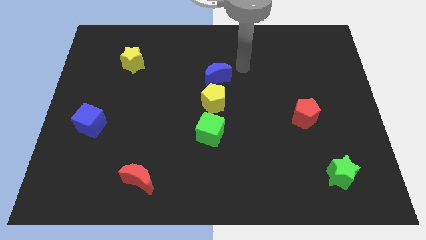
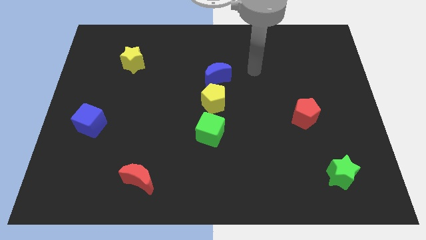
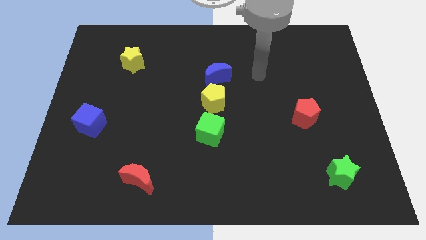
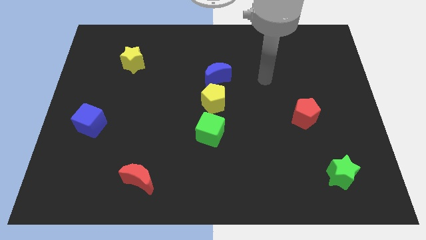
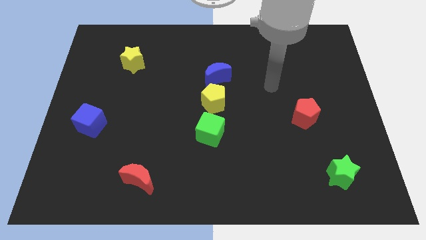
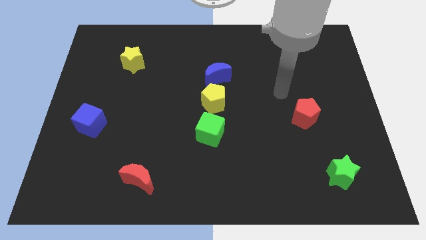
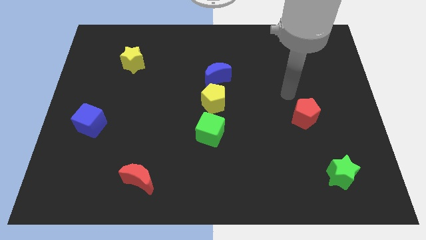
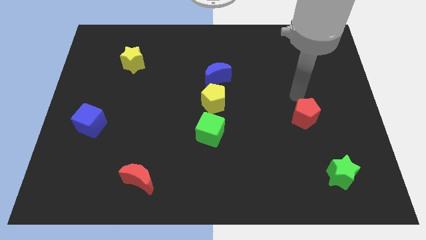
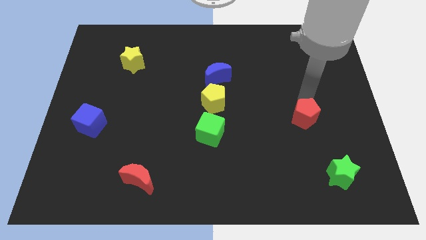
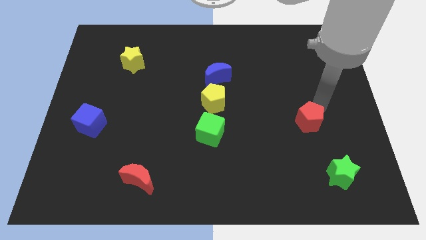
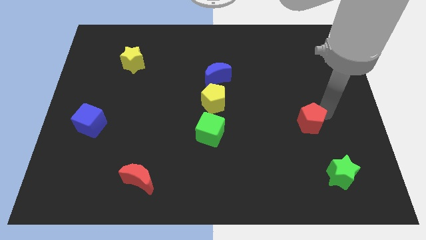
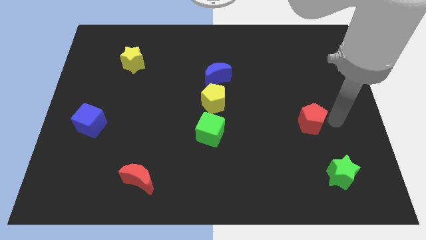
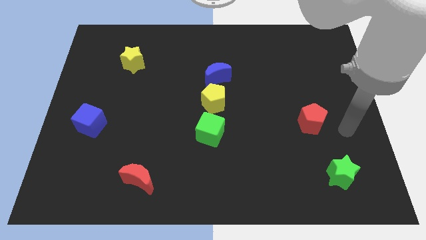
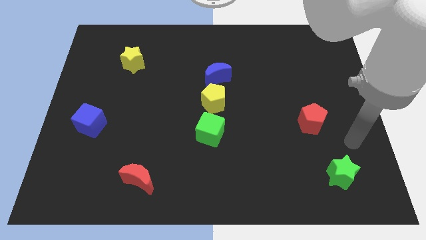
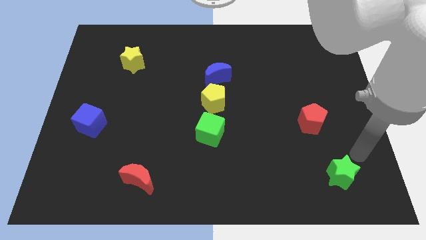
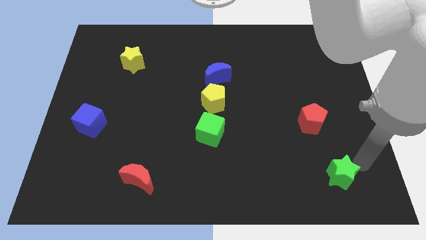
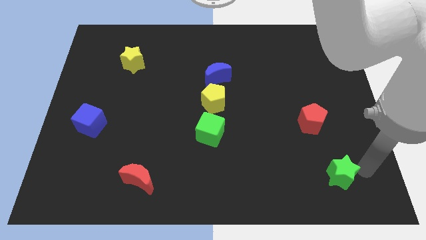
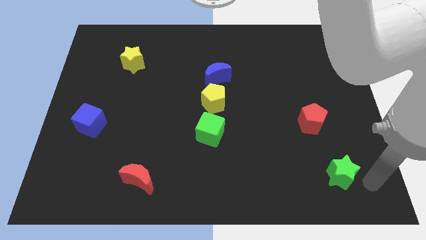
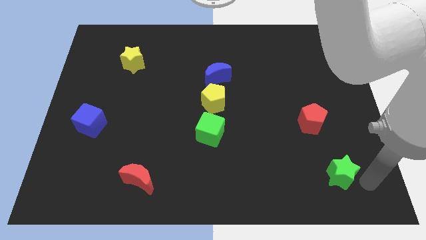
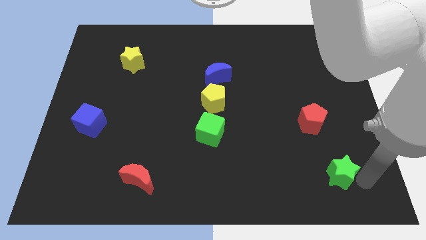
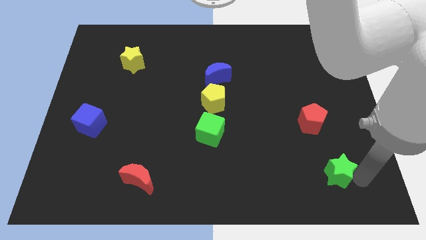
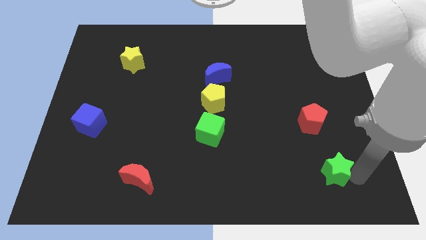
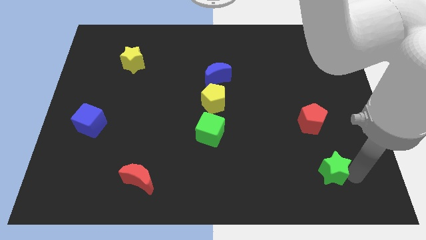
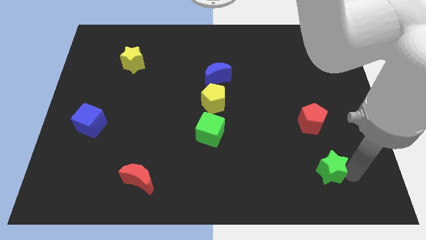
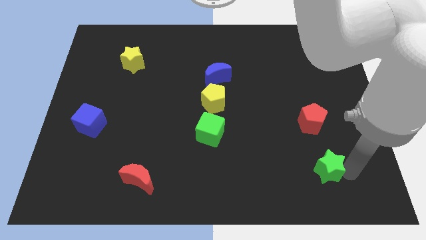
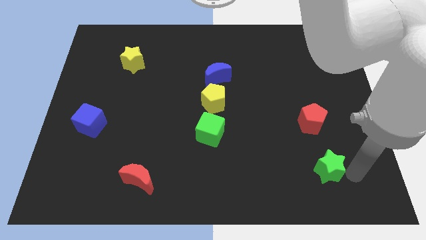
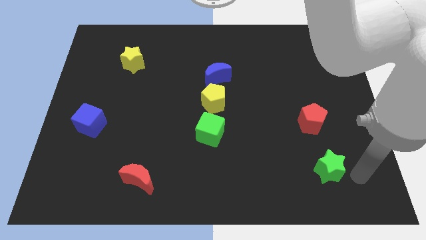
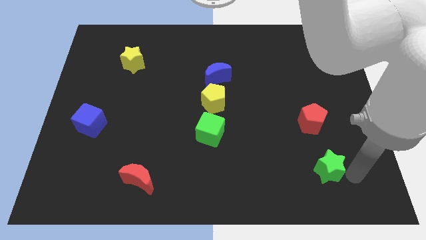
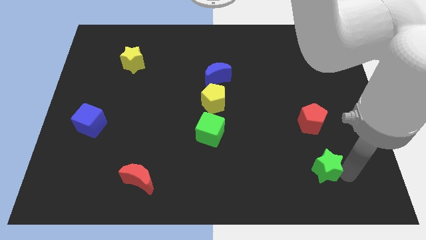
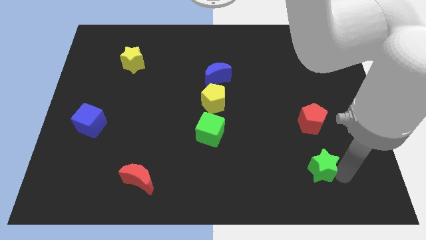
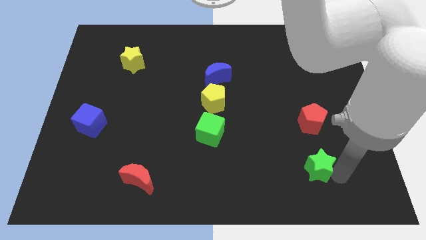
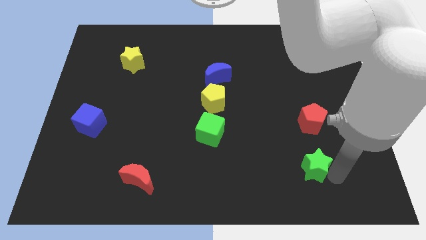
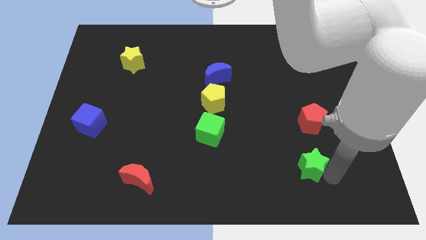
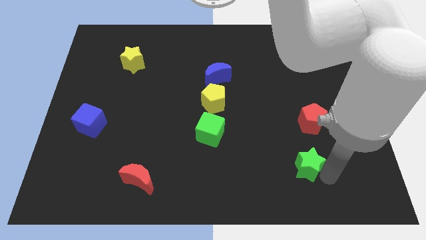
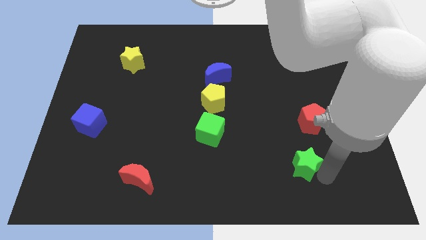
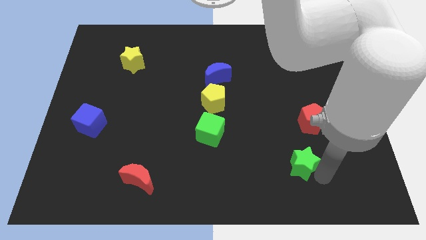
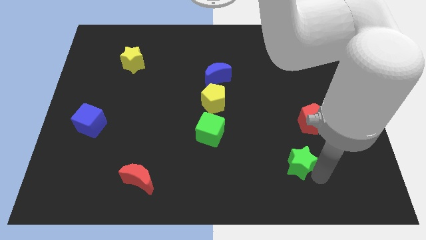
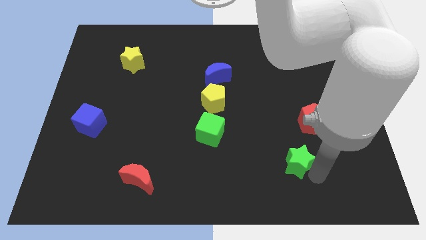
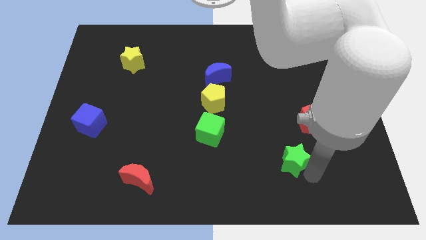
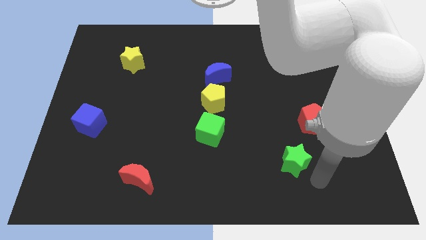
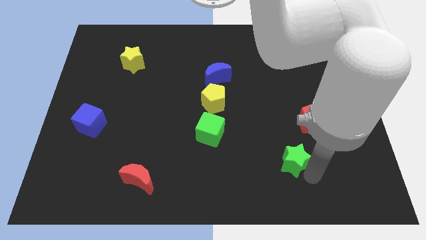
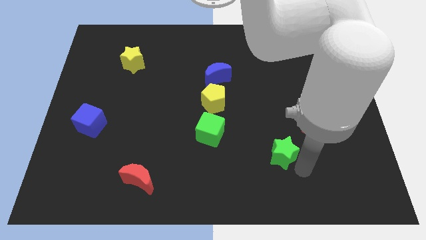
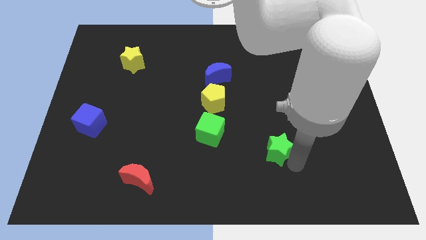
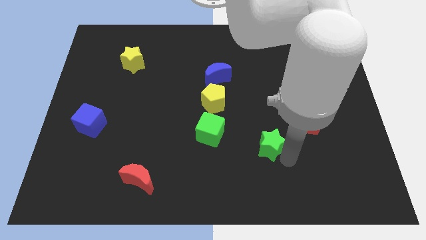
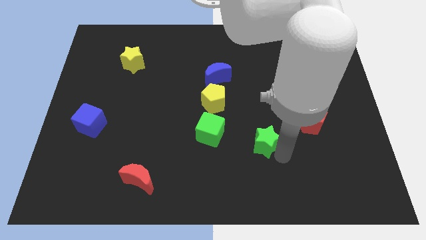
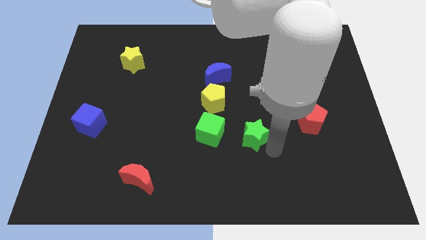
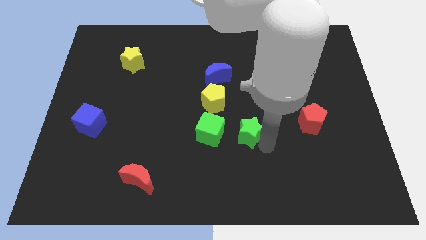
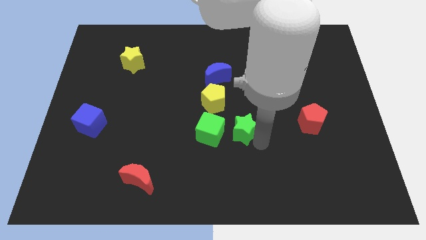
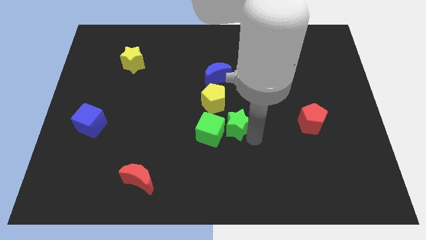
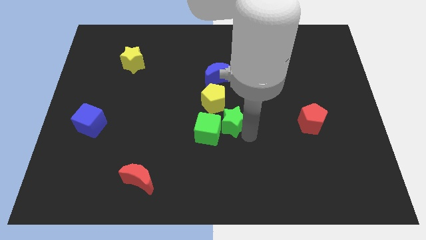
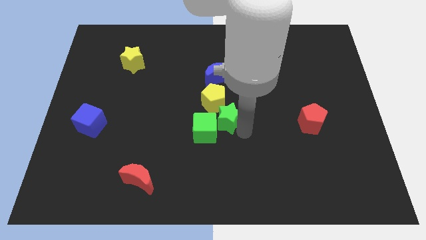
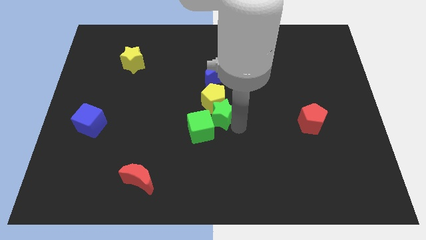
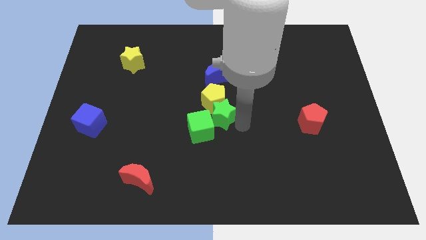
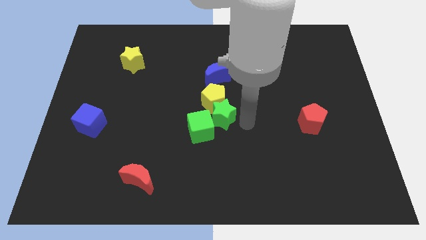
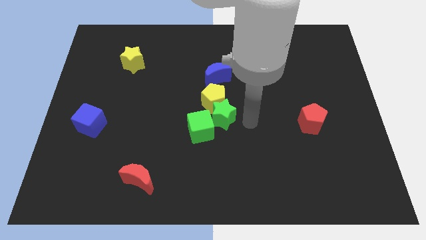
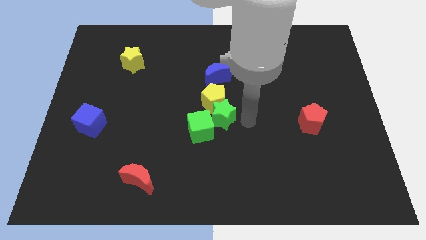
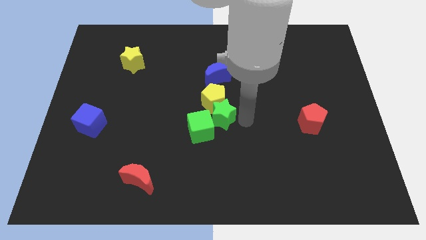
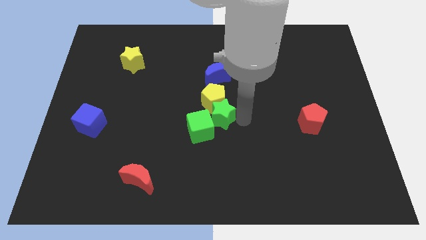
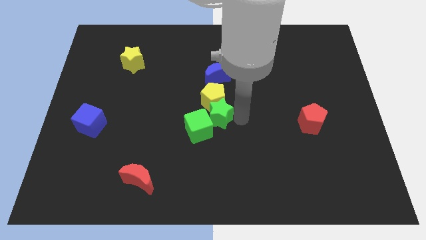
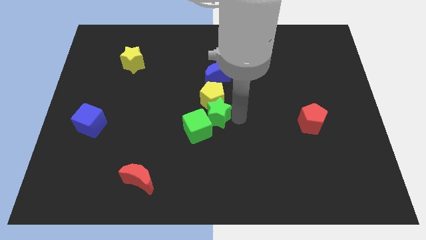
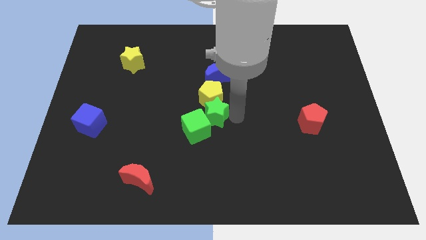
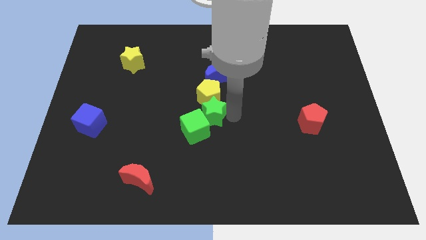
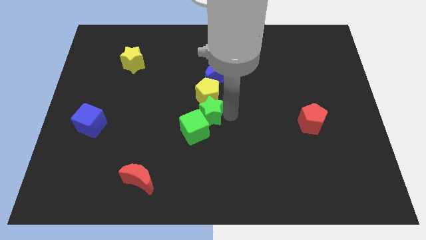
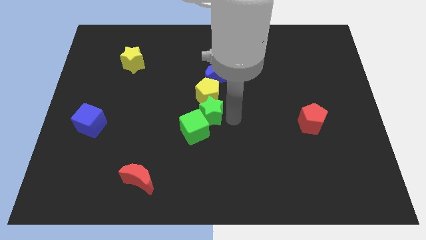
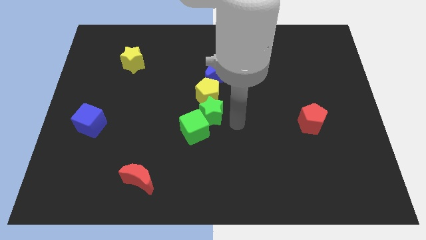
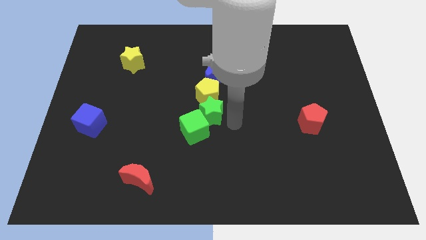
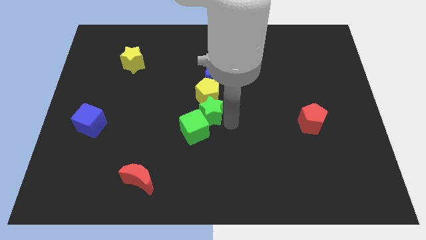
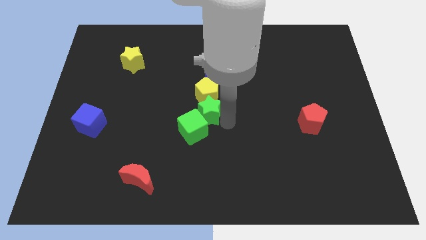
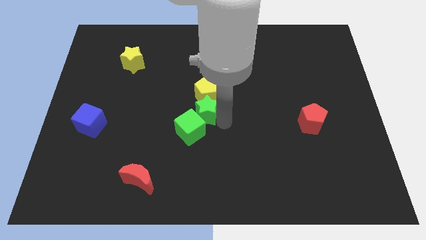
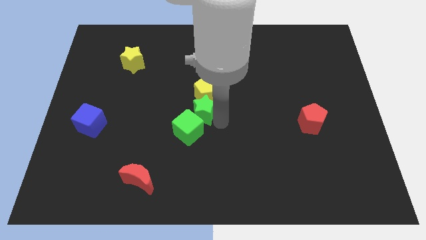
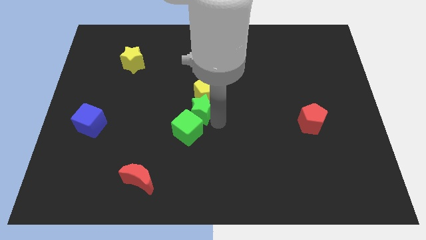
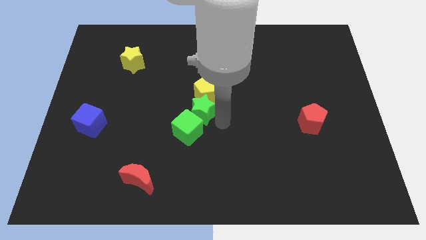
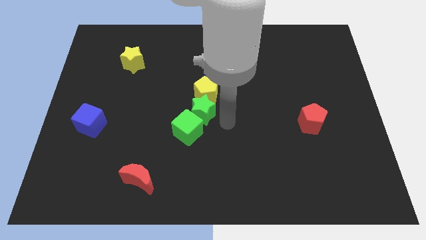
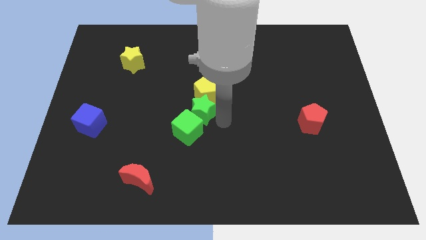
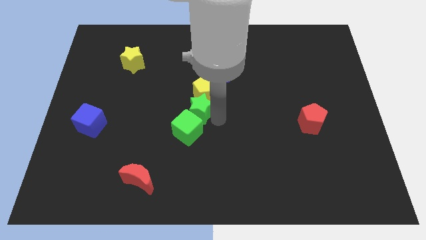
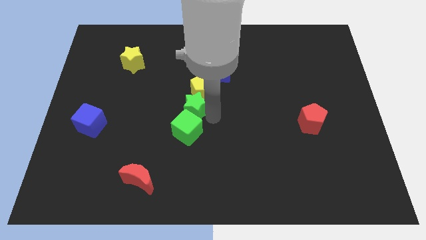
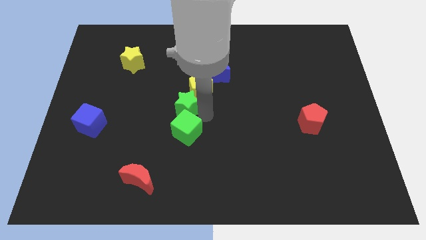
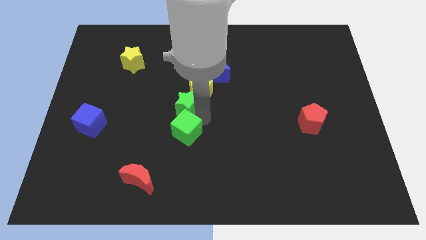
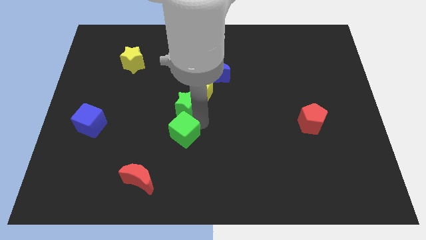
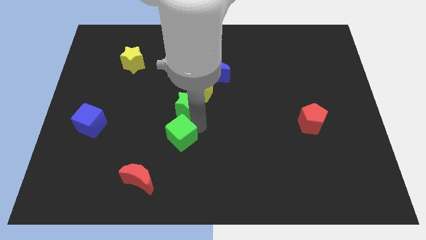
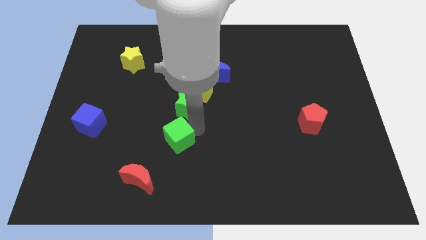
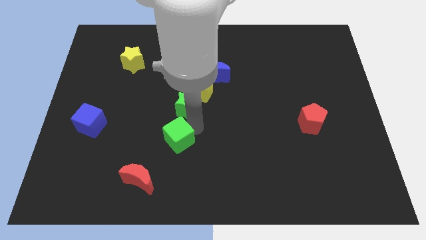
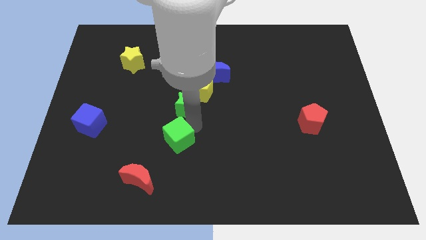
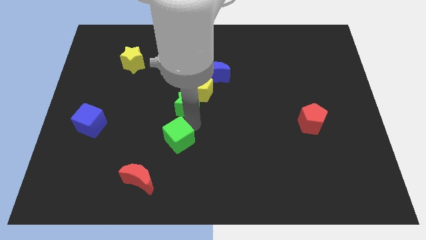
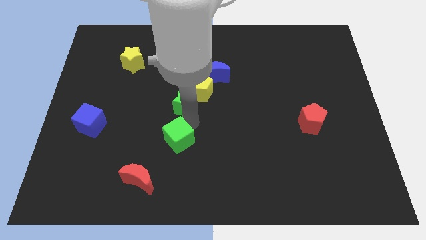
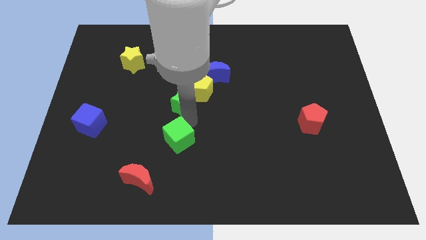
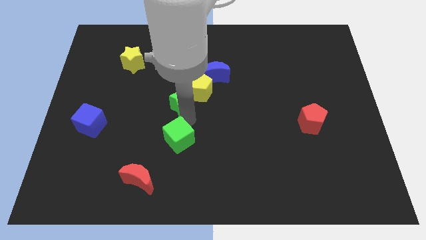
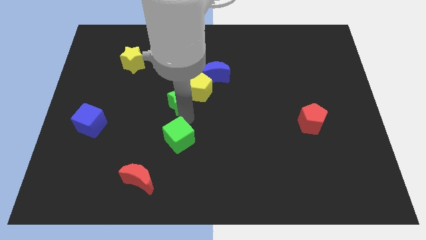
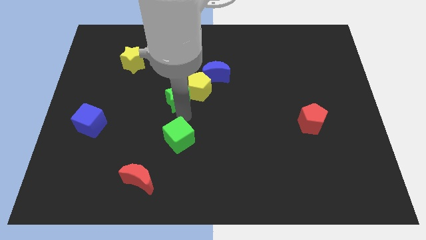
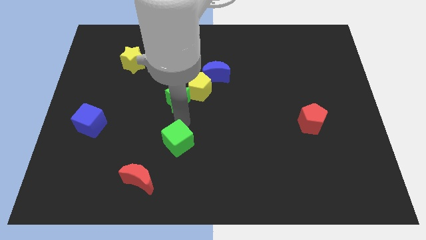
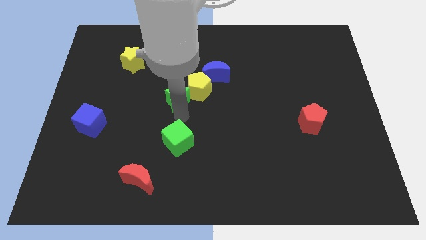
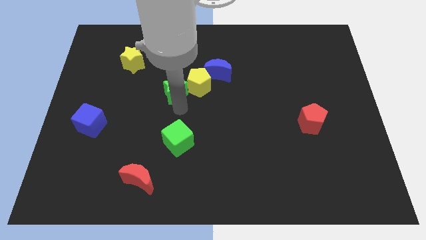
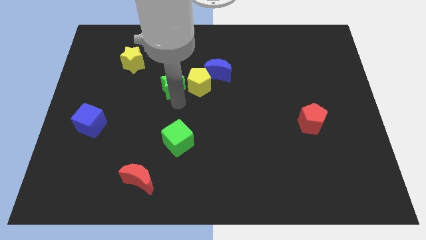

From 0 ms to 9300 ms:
slide the green star left of the blue moon
